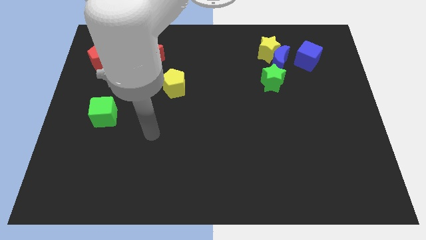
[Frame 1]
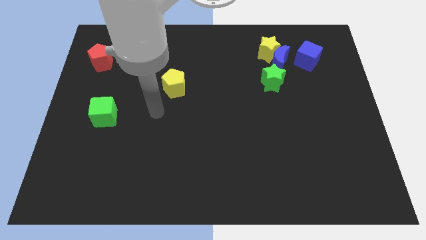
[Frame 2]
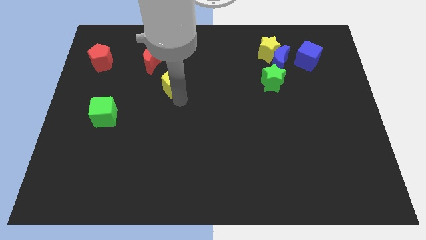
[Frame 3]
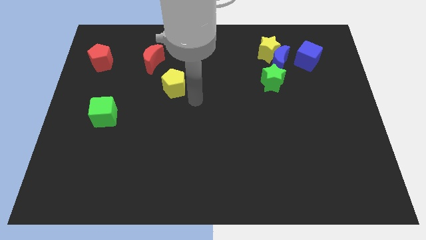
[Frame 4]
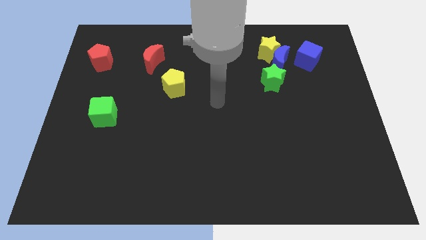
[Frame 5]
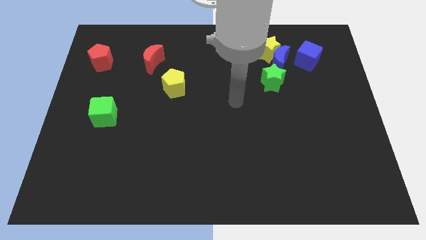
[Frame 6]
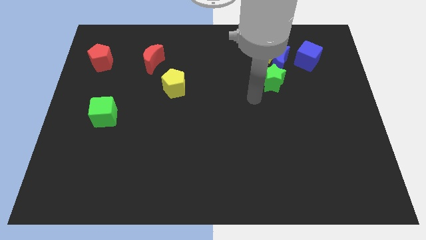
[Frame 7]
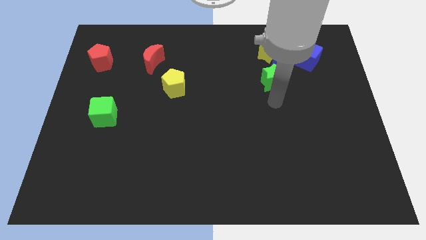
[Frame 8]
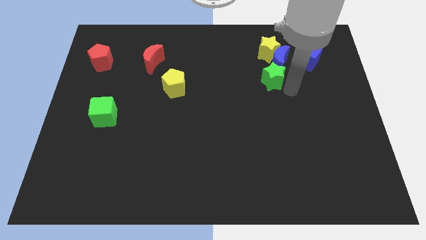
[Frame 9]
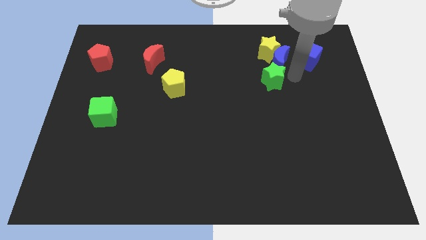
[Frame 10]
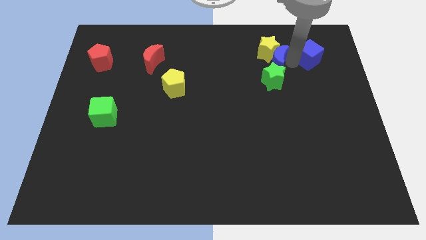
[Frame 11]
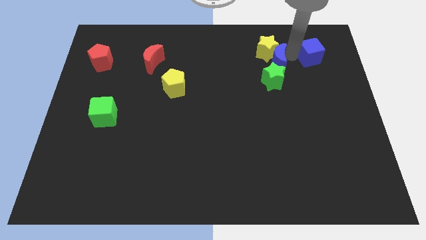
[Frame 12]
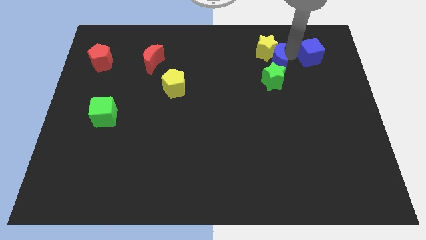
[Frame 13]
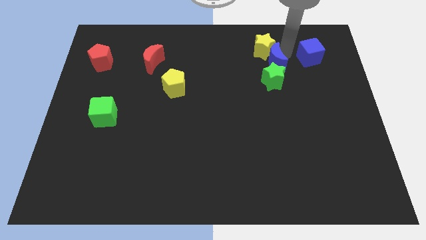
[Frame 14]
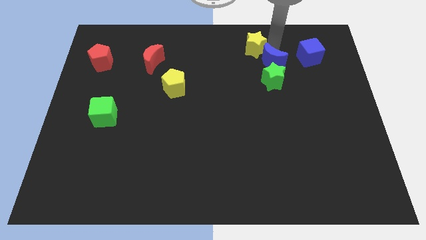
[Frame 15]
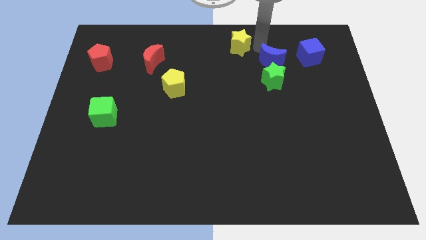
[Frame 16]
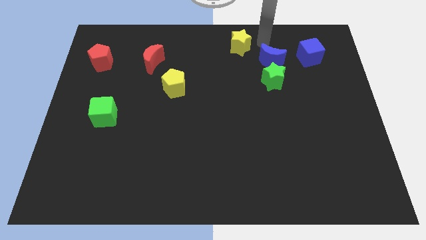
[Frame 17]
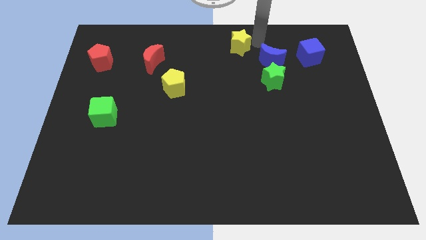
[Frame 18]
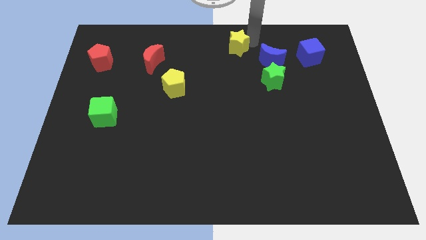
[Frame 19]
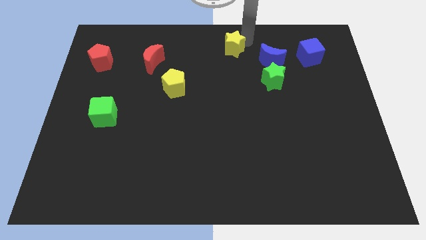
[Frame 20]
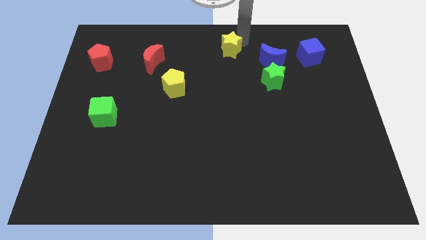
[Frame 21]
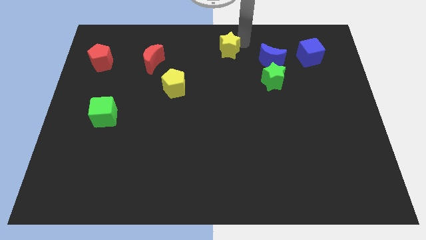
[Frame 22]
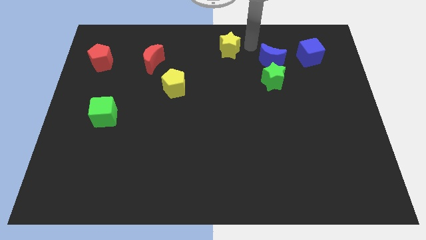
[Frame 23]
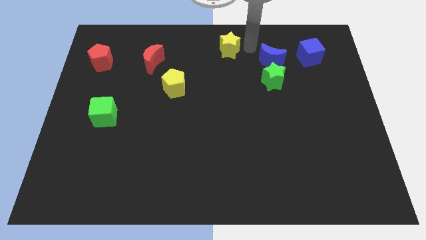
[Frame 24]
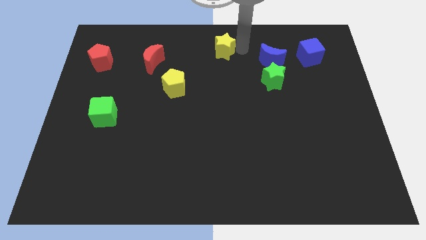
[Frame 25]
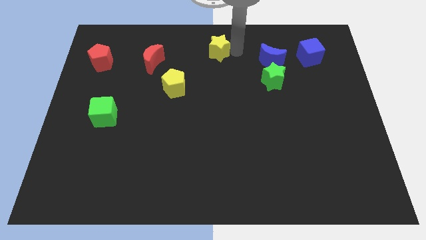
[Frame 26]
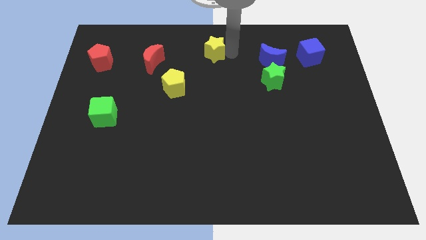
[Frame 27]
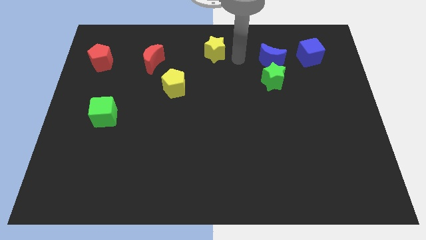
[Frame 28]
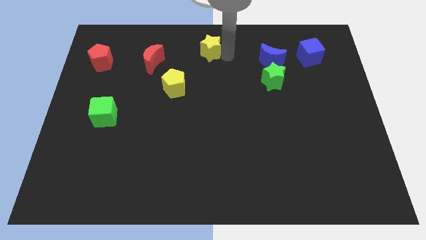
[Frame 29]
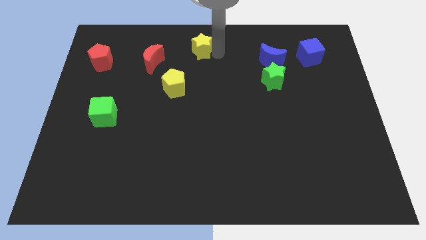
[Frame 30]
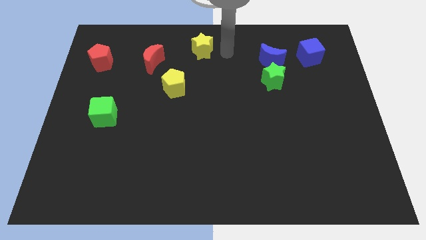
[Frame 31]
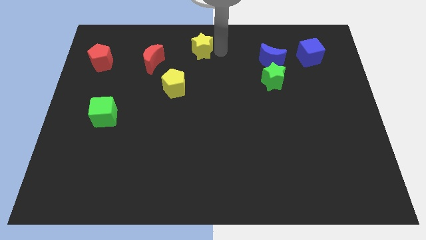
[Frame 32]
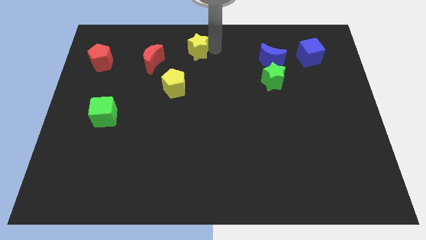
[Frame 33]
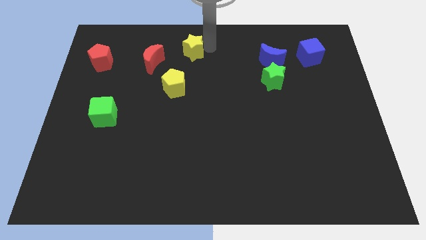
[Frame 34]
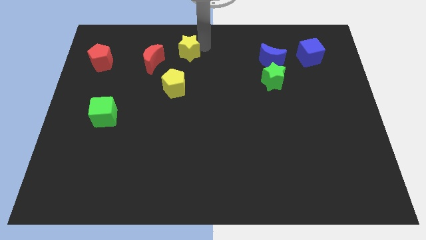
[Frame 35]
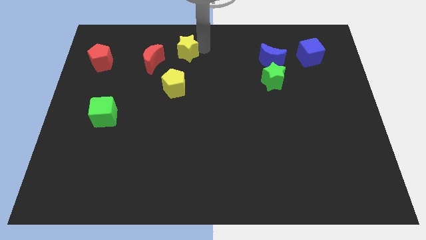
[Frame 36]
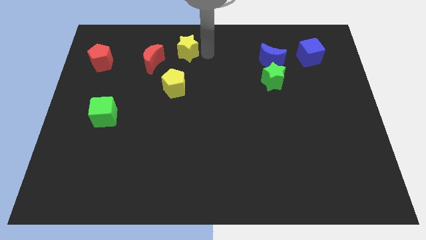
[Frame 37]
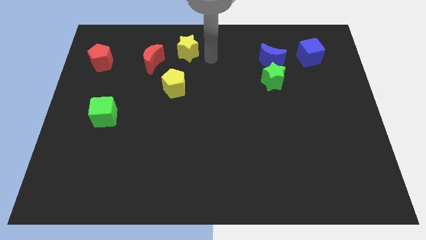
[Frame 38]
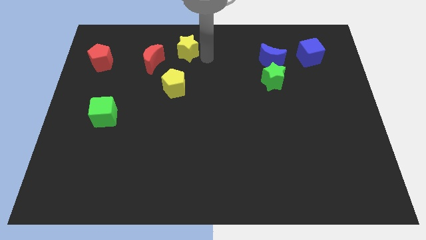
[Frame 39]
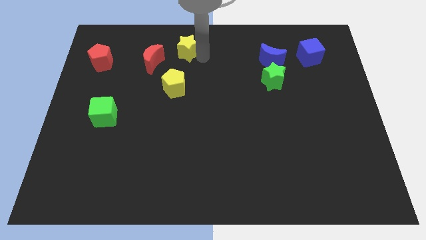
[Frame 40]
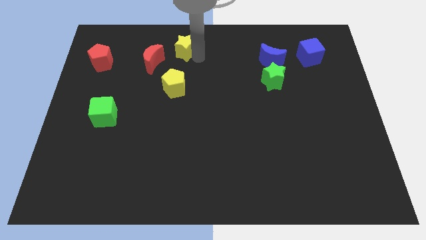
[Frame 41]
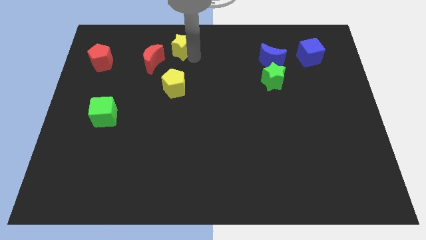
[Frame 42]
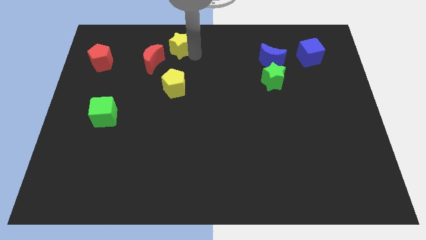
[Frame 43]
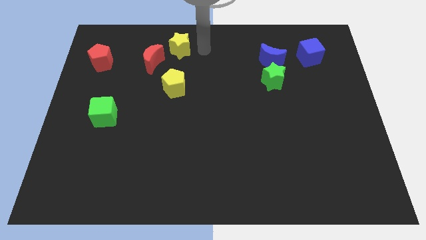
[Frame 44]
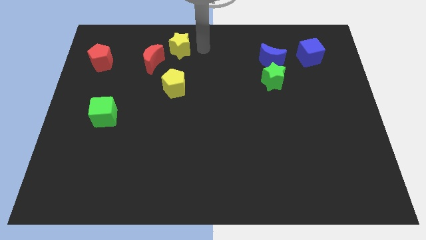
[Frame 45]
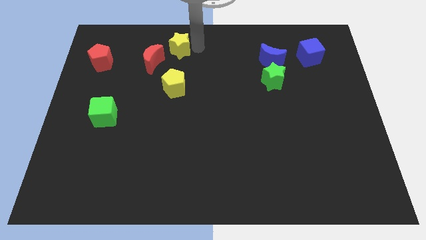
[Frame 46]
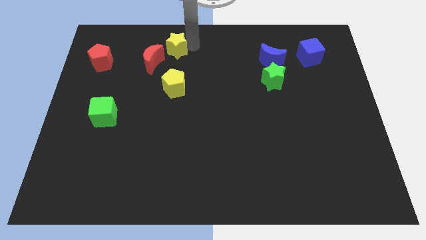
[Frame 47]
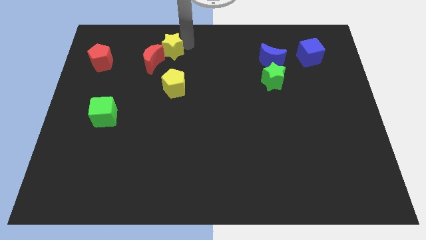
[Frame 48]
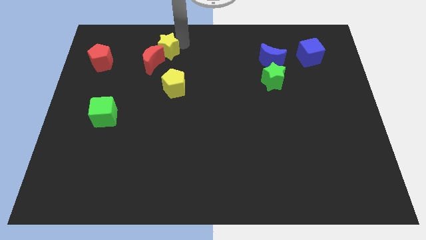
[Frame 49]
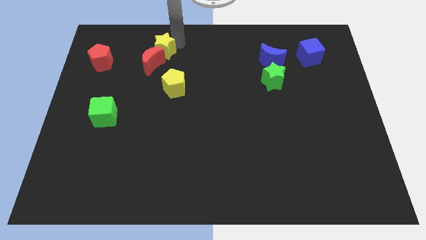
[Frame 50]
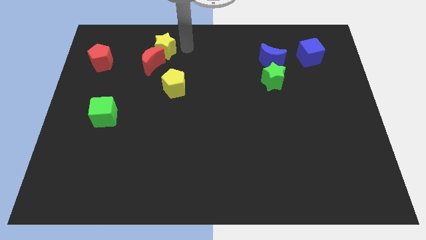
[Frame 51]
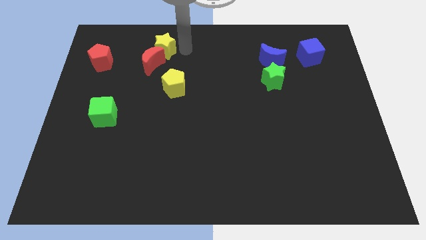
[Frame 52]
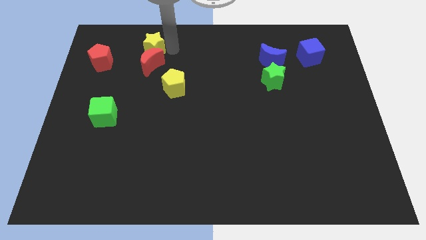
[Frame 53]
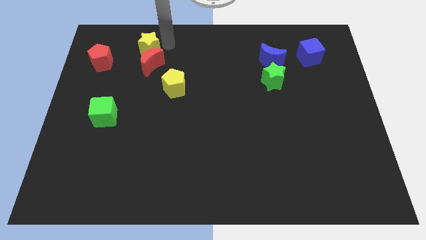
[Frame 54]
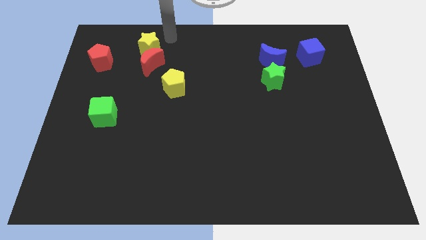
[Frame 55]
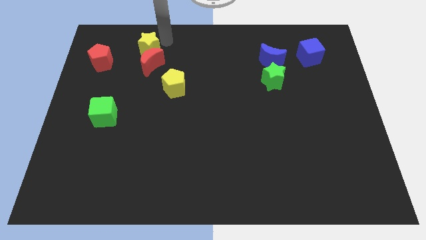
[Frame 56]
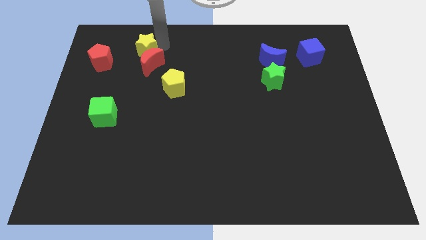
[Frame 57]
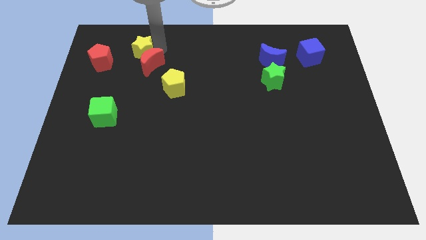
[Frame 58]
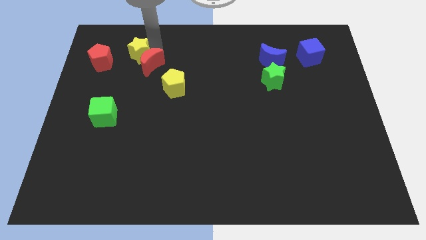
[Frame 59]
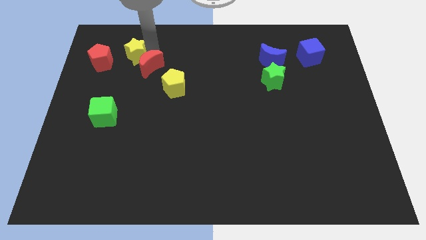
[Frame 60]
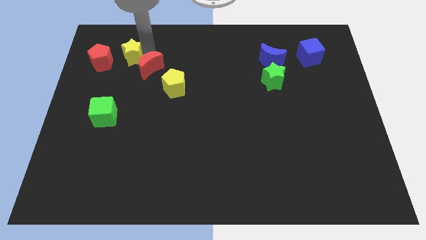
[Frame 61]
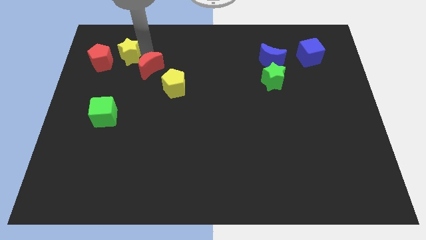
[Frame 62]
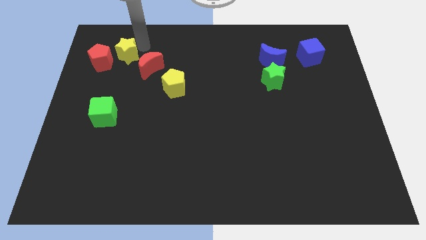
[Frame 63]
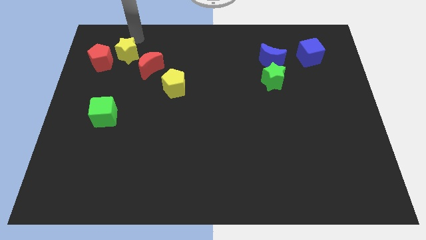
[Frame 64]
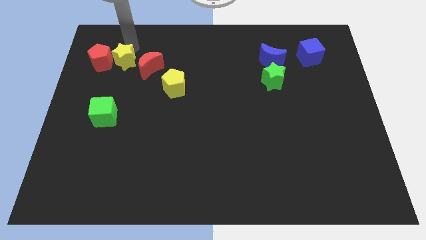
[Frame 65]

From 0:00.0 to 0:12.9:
put the yellow star to the bottom right side of the red pentagon

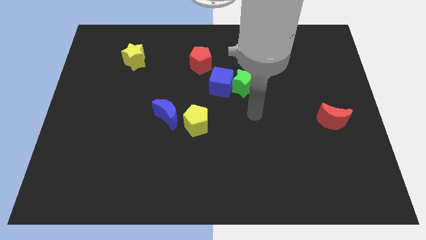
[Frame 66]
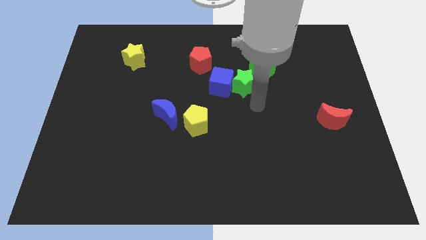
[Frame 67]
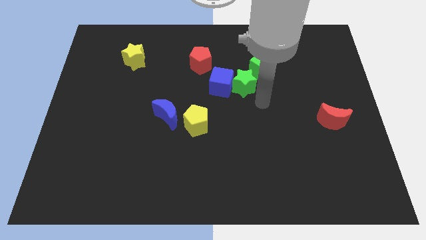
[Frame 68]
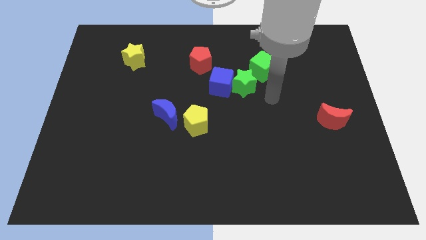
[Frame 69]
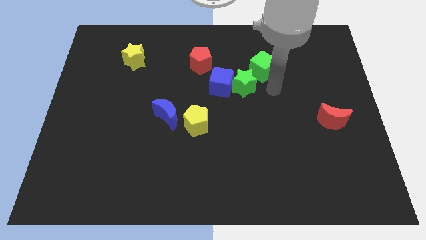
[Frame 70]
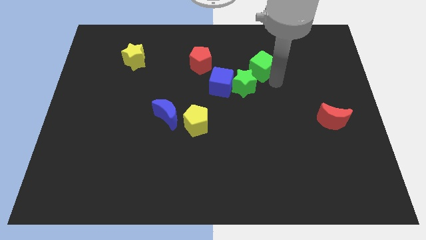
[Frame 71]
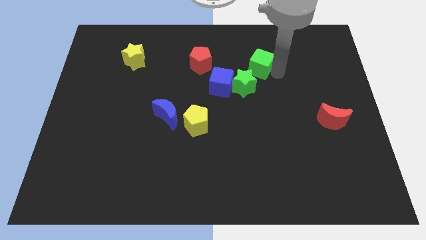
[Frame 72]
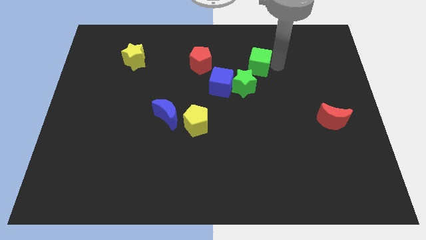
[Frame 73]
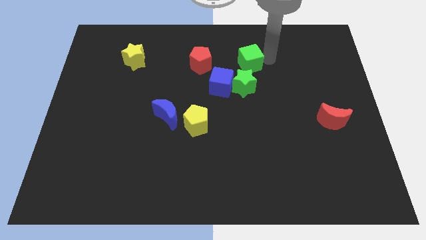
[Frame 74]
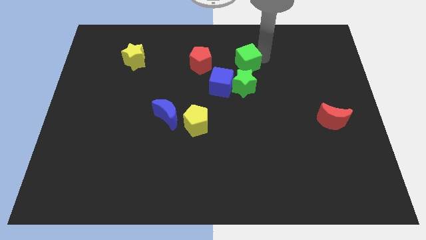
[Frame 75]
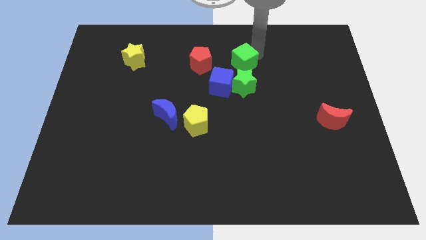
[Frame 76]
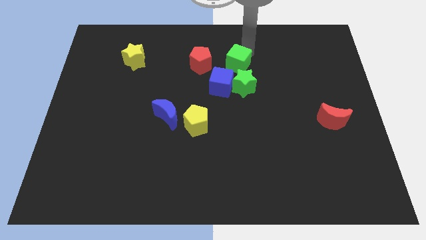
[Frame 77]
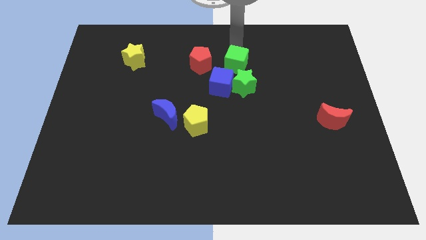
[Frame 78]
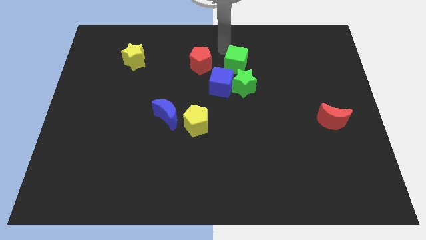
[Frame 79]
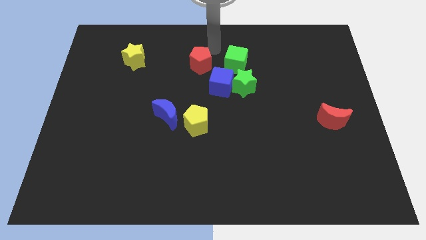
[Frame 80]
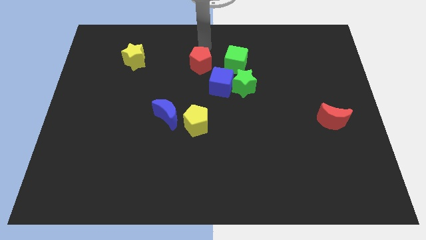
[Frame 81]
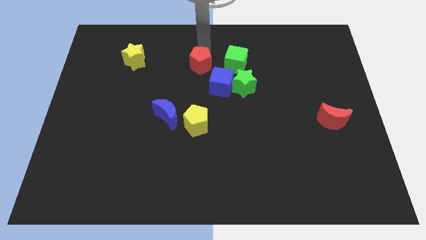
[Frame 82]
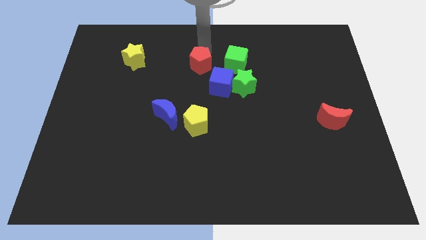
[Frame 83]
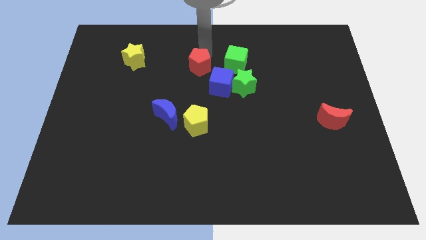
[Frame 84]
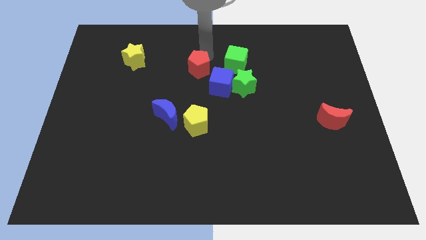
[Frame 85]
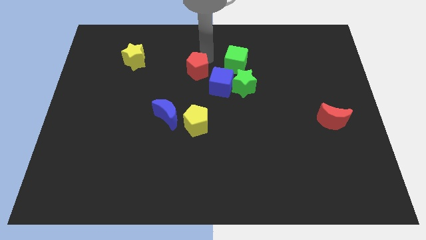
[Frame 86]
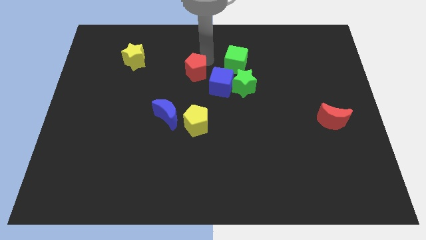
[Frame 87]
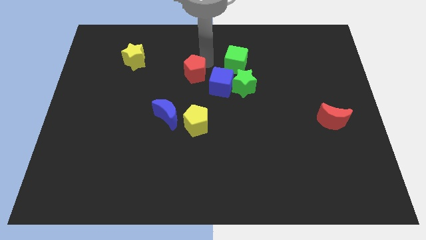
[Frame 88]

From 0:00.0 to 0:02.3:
move the red pentagon to the top of the yellow pentagon
